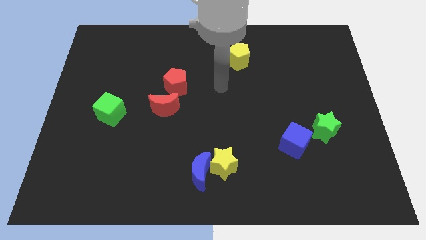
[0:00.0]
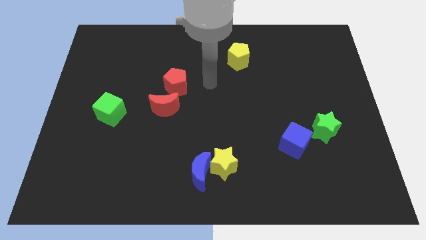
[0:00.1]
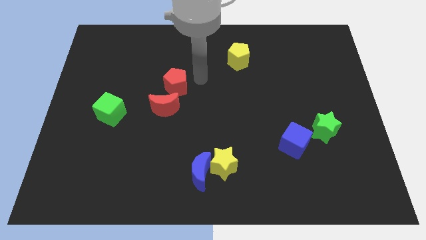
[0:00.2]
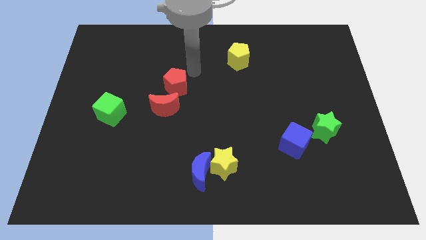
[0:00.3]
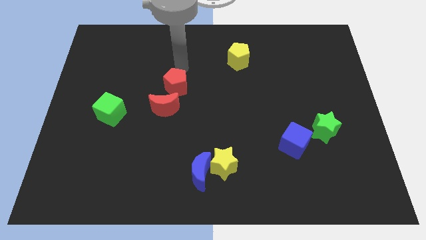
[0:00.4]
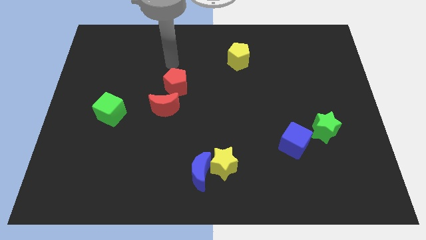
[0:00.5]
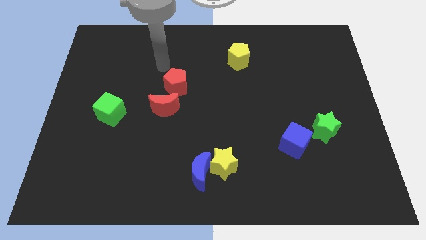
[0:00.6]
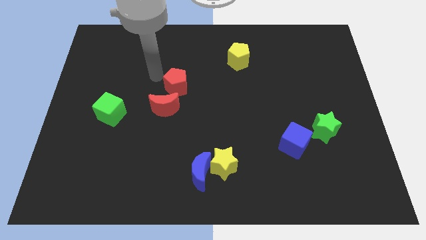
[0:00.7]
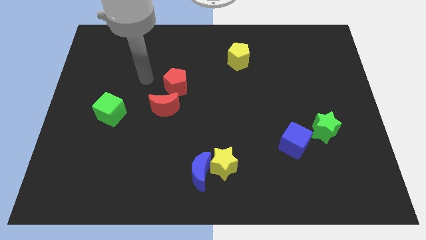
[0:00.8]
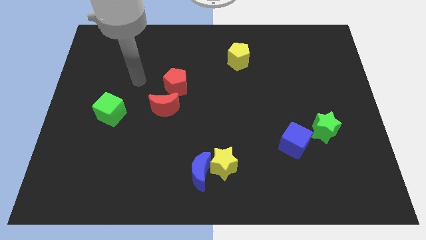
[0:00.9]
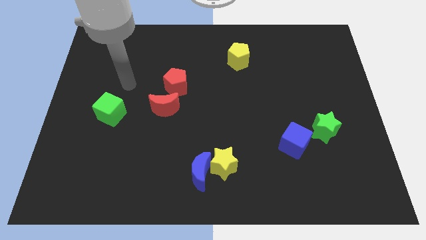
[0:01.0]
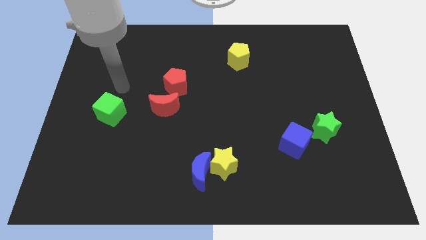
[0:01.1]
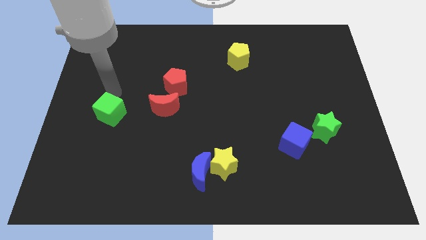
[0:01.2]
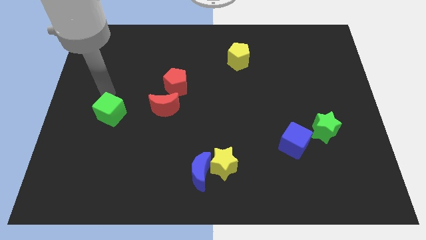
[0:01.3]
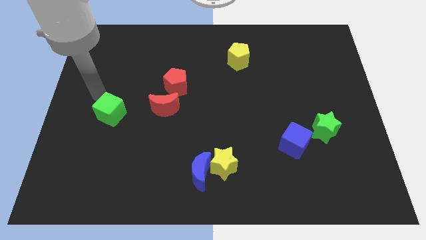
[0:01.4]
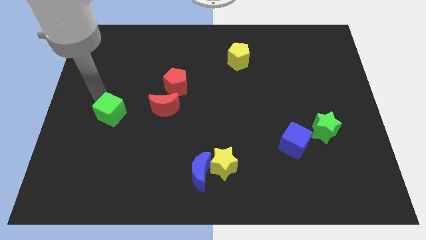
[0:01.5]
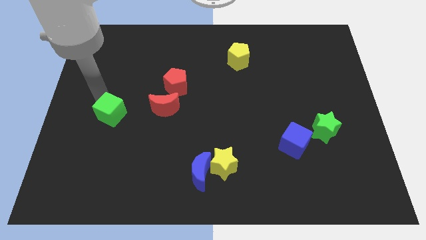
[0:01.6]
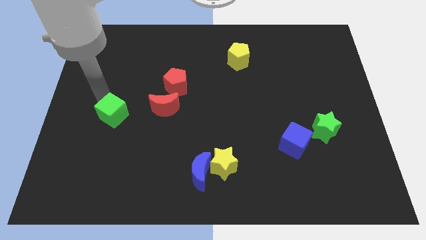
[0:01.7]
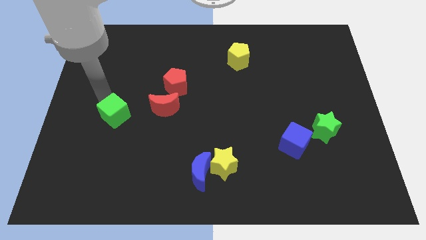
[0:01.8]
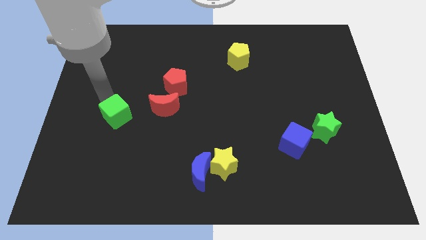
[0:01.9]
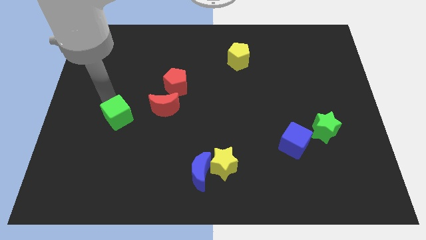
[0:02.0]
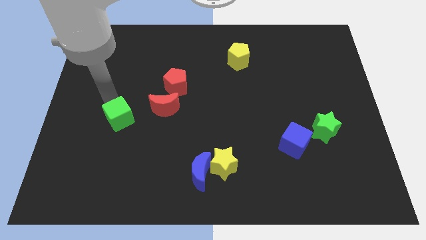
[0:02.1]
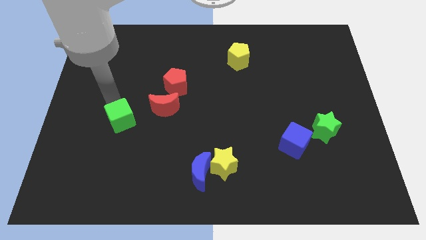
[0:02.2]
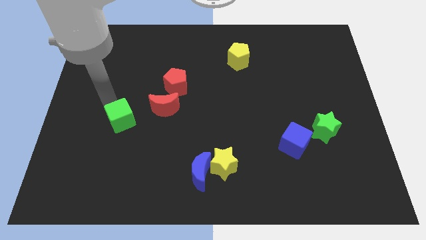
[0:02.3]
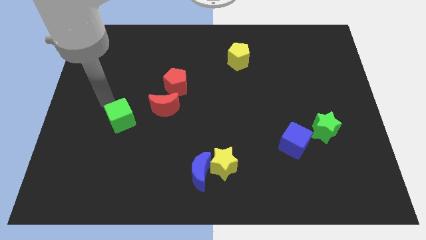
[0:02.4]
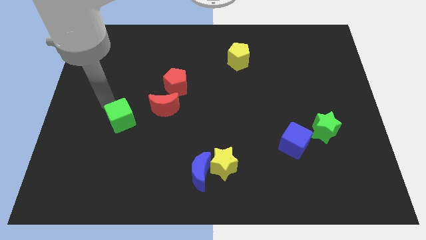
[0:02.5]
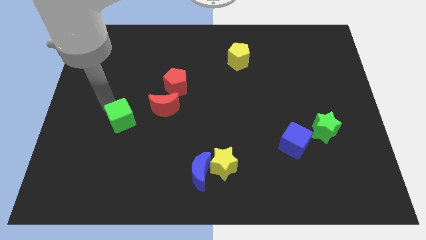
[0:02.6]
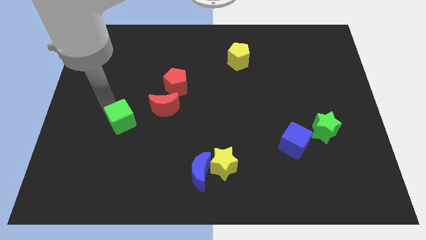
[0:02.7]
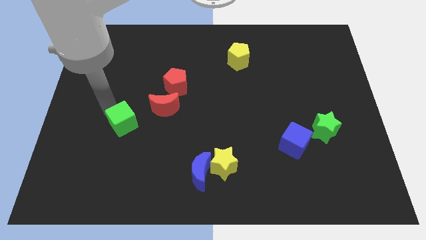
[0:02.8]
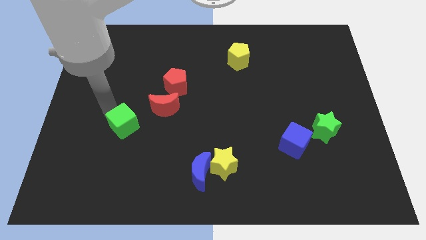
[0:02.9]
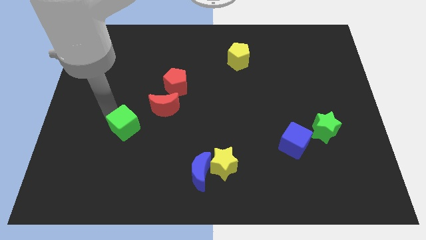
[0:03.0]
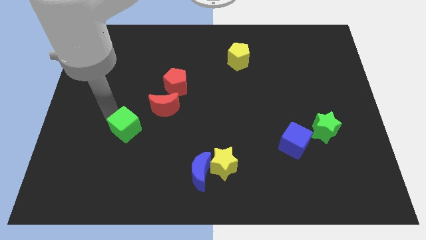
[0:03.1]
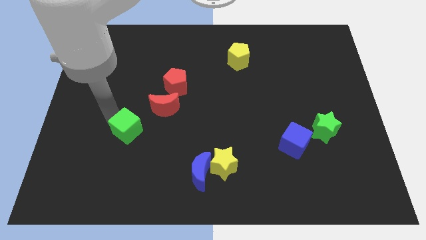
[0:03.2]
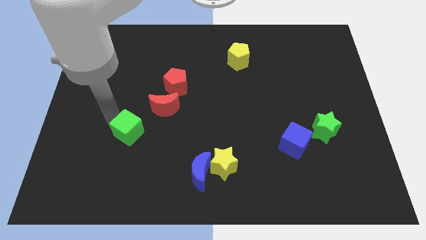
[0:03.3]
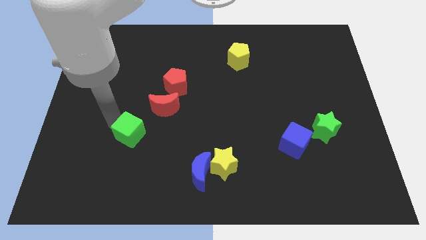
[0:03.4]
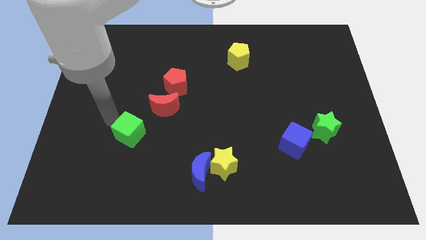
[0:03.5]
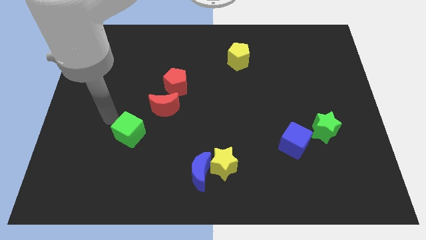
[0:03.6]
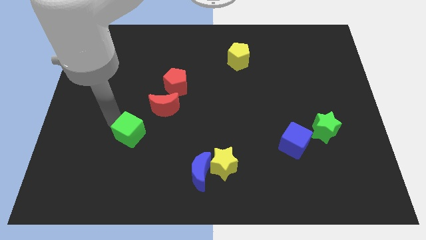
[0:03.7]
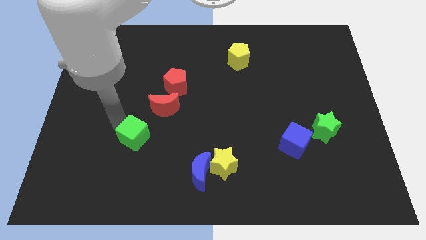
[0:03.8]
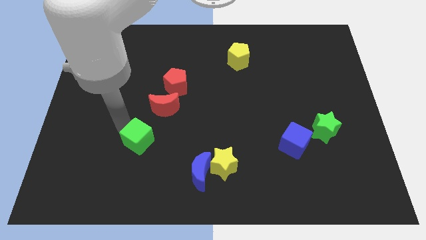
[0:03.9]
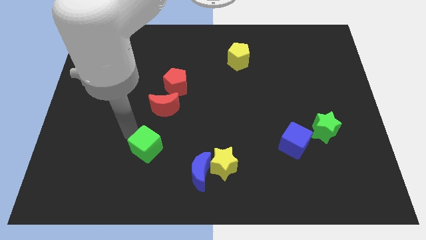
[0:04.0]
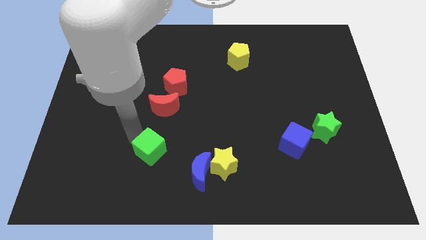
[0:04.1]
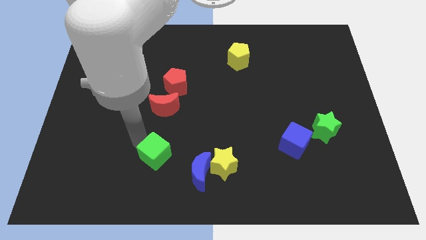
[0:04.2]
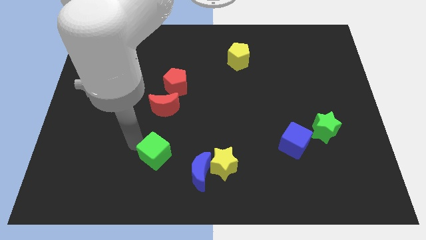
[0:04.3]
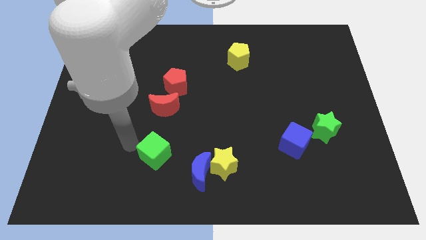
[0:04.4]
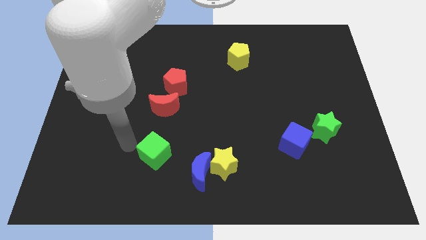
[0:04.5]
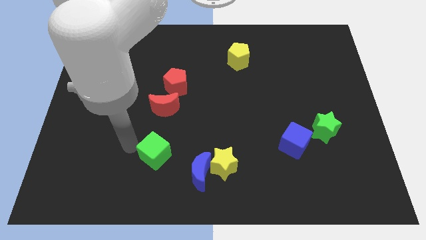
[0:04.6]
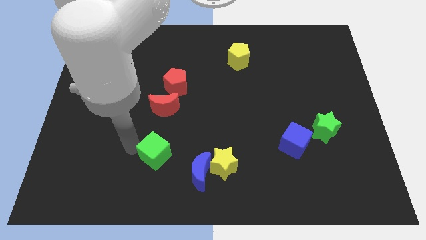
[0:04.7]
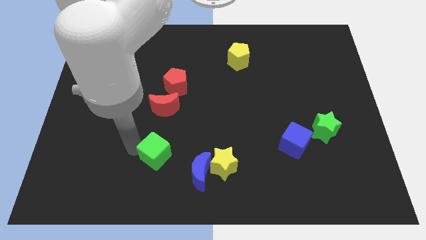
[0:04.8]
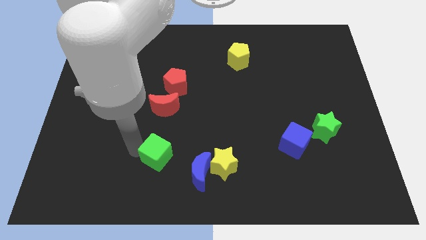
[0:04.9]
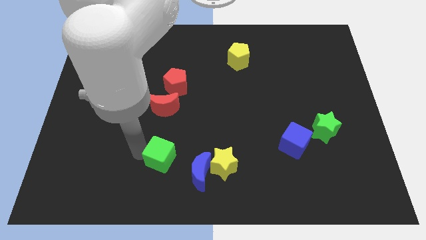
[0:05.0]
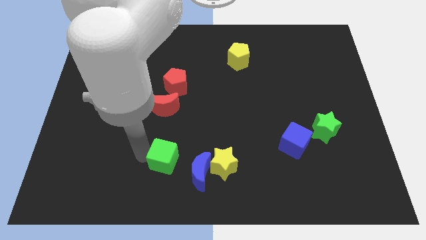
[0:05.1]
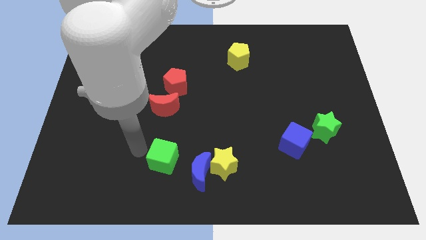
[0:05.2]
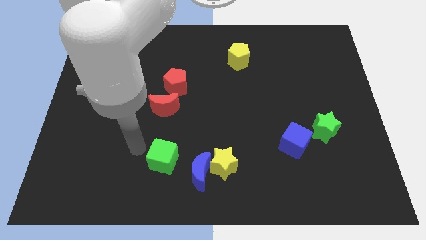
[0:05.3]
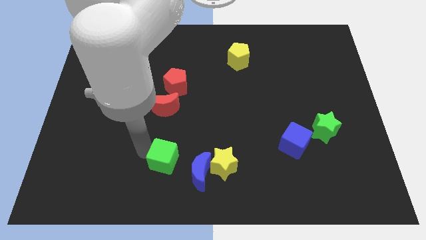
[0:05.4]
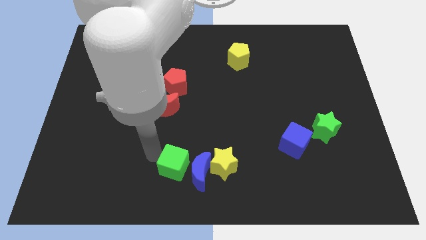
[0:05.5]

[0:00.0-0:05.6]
push the green cube towards the blue moon

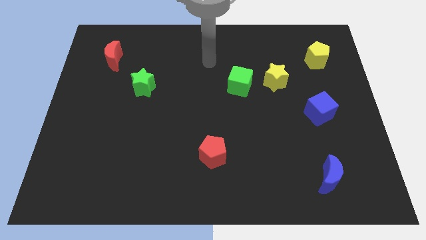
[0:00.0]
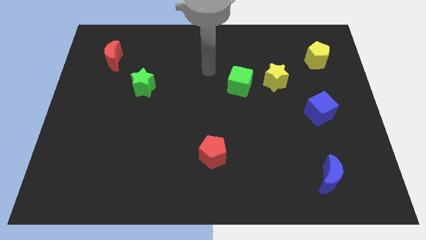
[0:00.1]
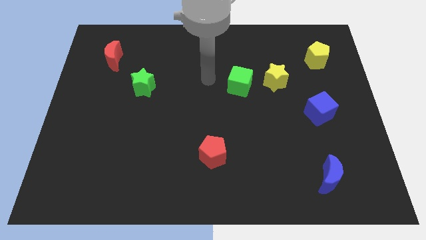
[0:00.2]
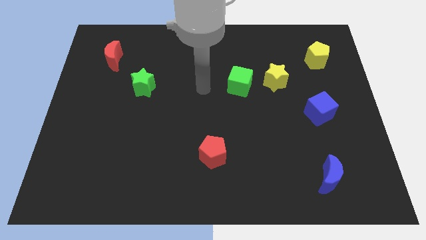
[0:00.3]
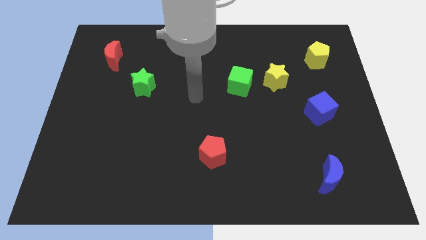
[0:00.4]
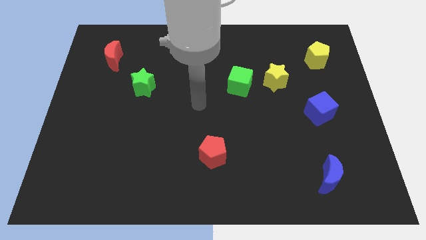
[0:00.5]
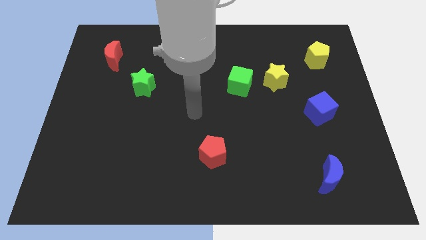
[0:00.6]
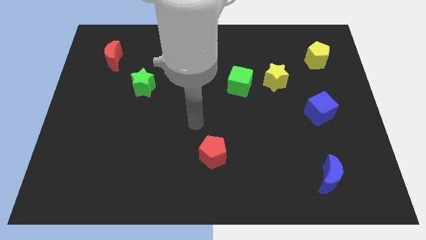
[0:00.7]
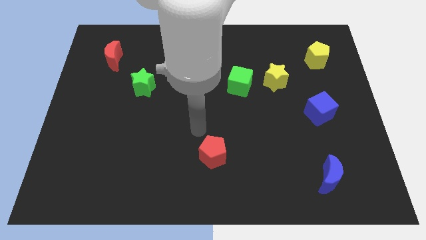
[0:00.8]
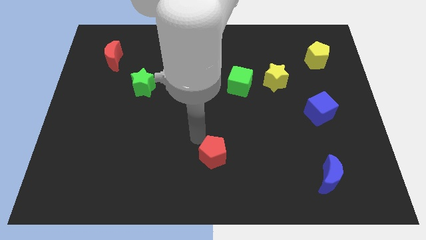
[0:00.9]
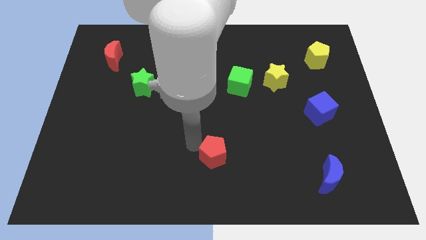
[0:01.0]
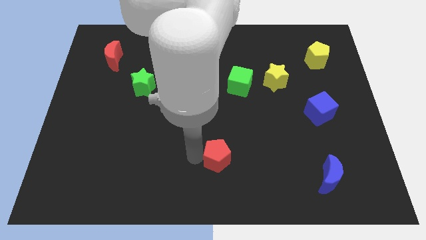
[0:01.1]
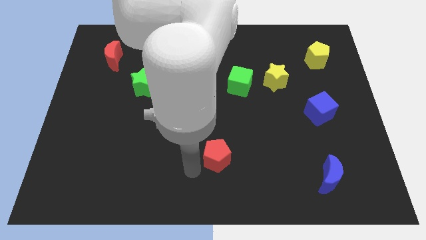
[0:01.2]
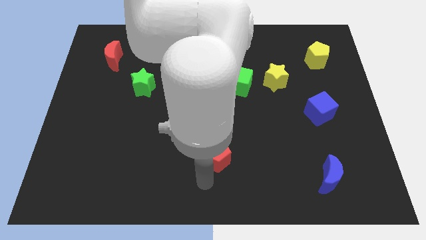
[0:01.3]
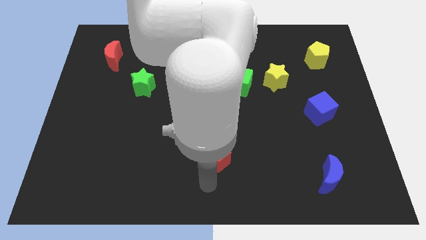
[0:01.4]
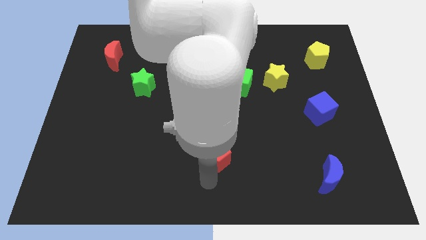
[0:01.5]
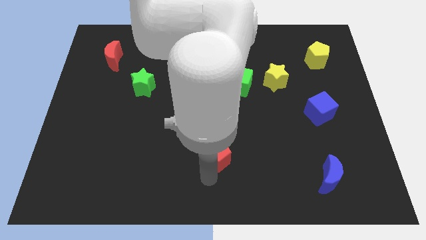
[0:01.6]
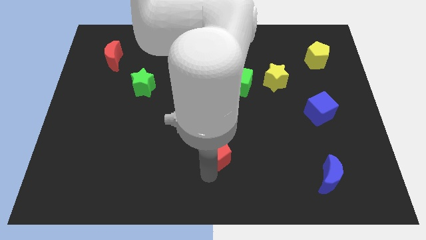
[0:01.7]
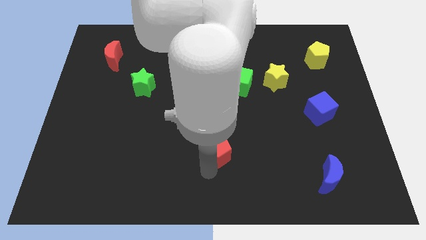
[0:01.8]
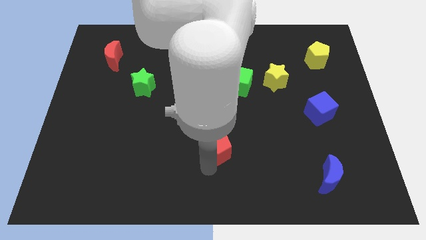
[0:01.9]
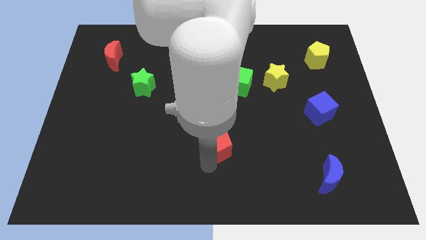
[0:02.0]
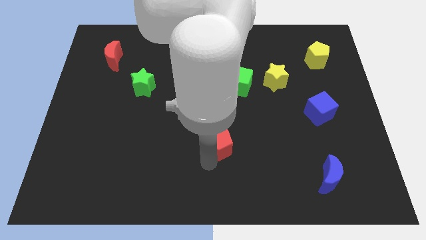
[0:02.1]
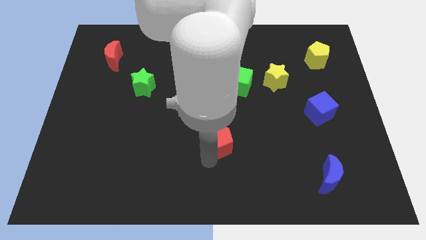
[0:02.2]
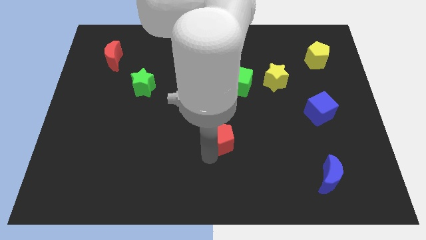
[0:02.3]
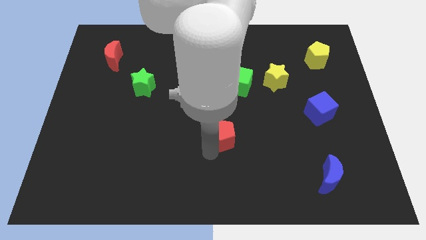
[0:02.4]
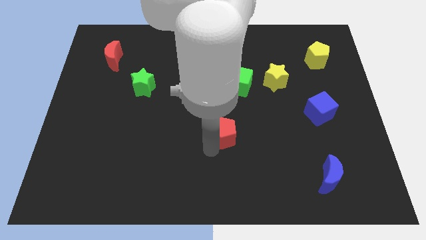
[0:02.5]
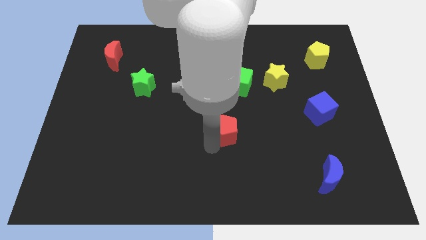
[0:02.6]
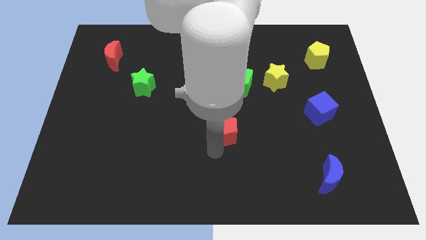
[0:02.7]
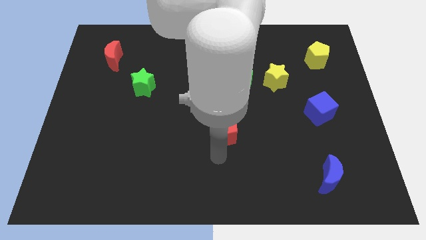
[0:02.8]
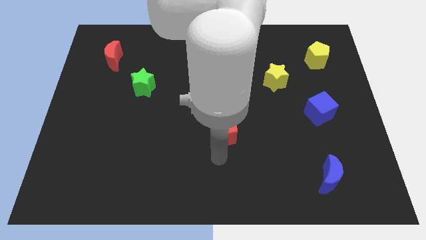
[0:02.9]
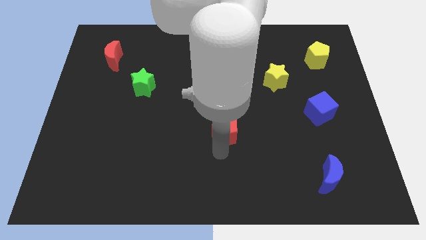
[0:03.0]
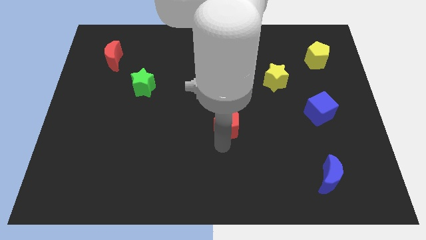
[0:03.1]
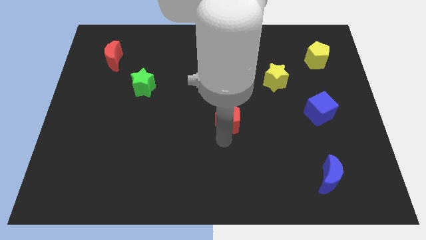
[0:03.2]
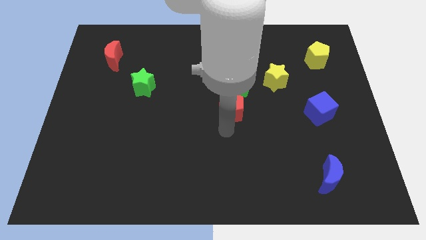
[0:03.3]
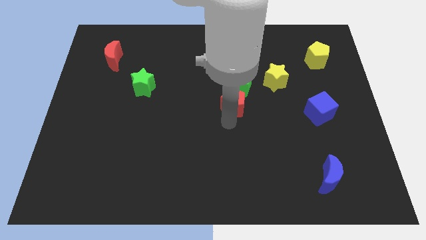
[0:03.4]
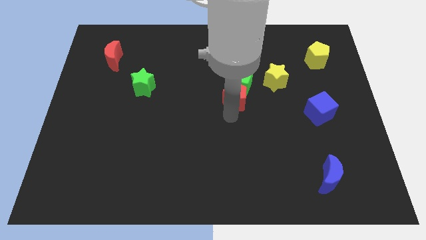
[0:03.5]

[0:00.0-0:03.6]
move the red pentagon next to the green cube
